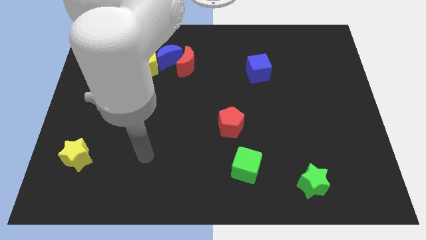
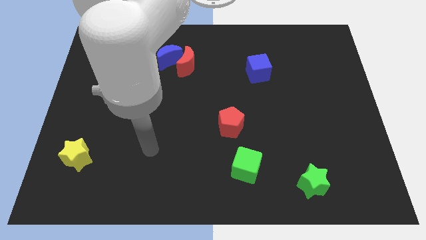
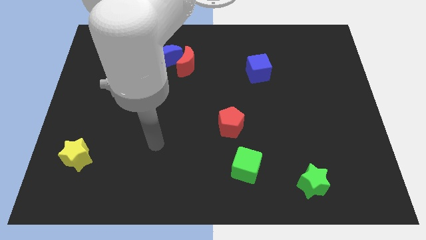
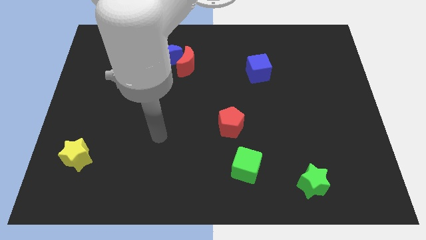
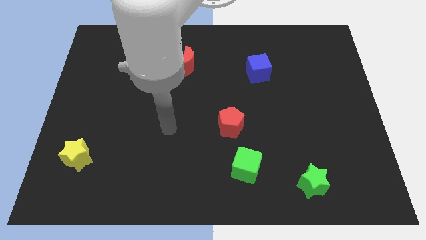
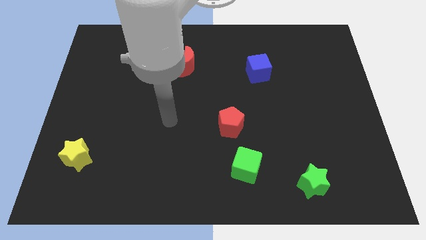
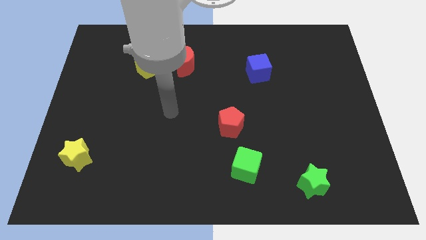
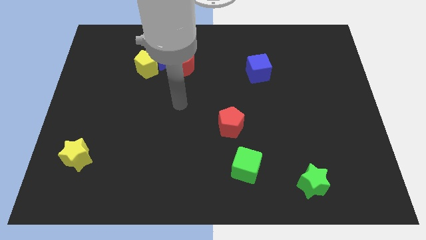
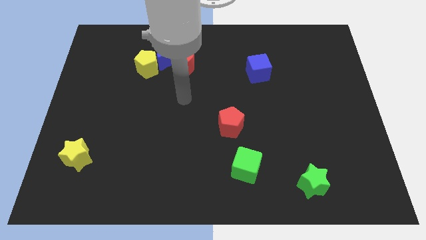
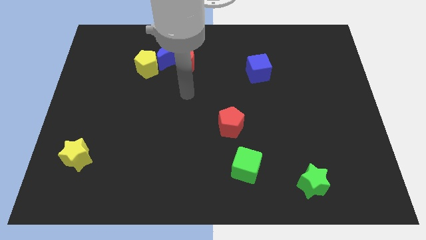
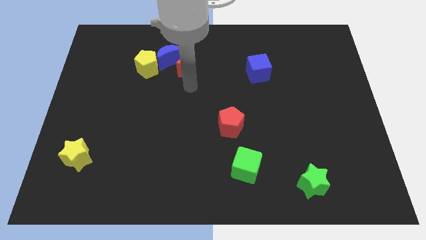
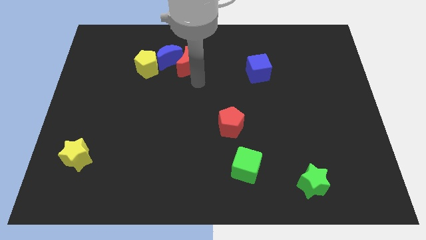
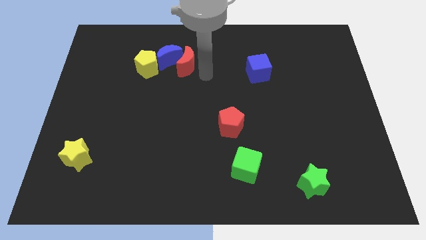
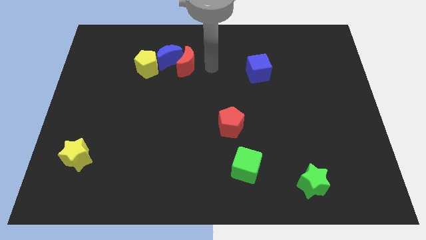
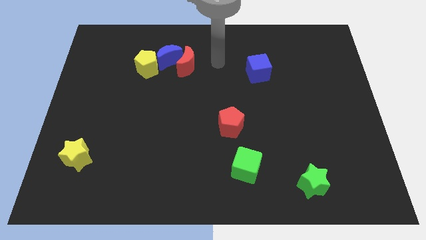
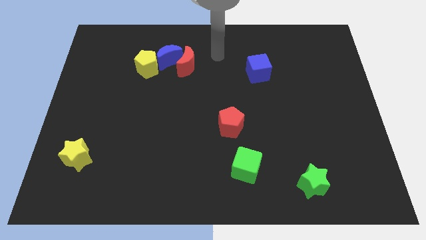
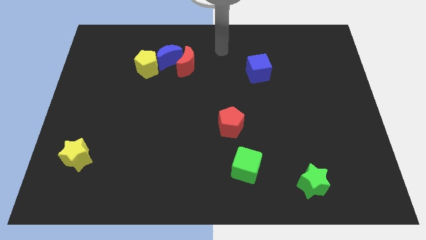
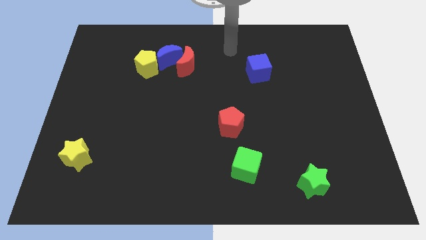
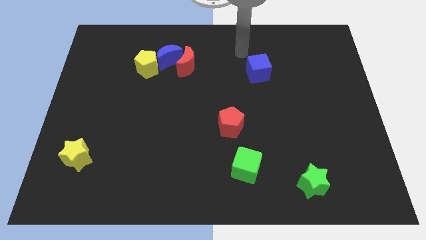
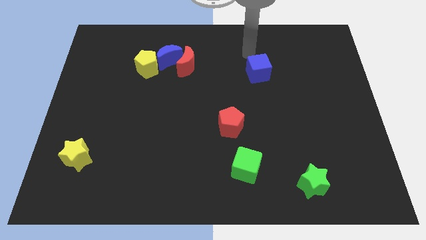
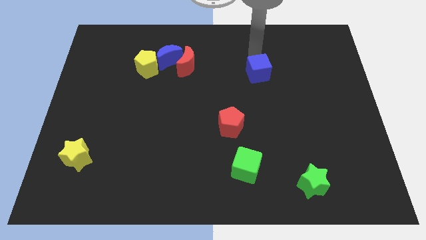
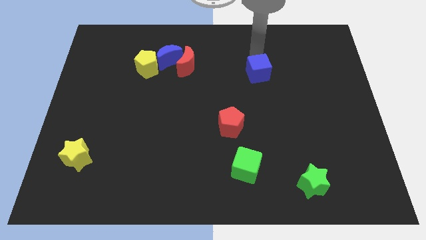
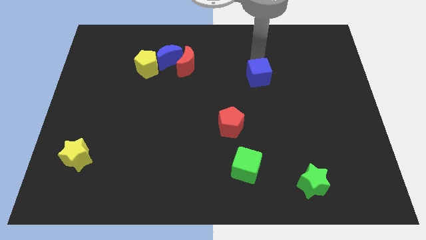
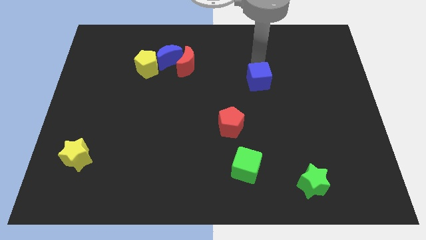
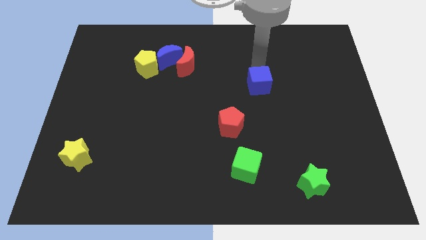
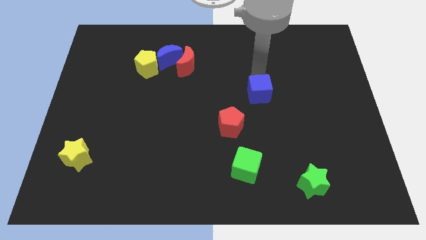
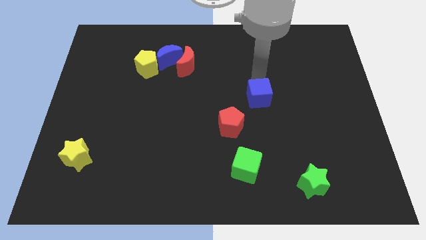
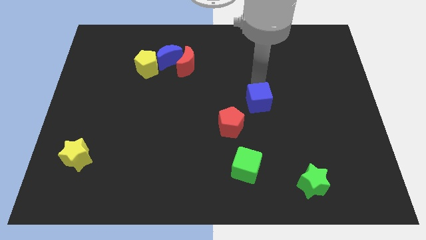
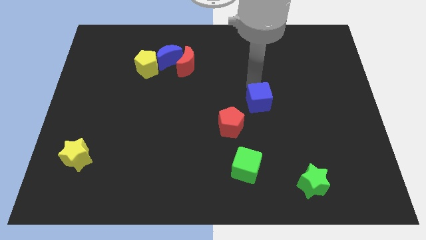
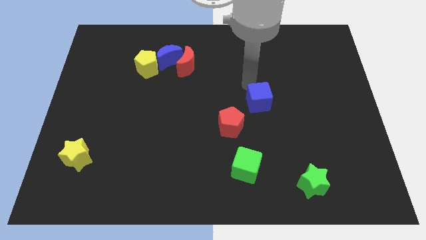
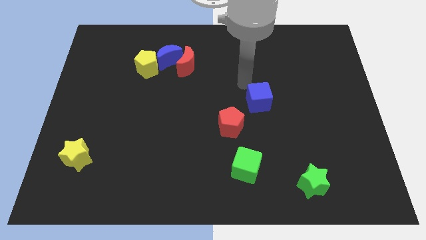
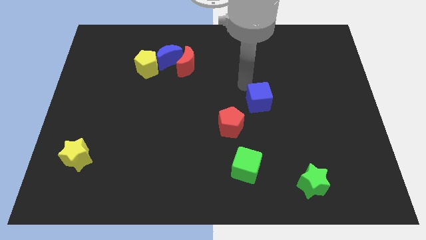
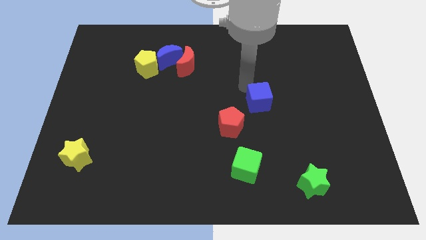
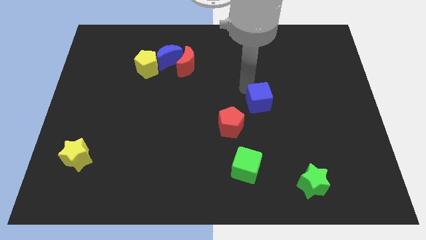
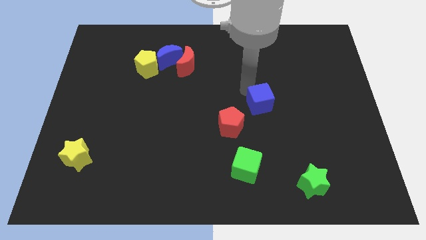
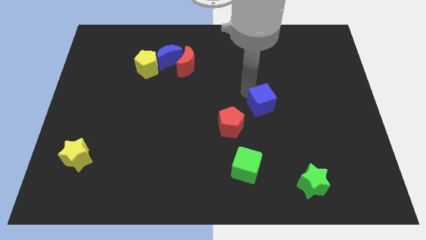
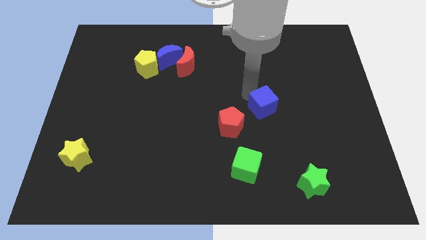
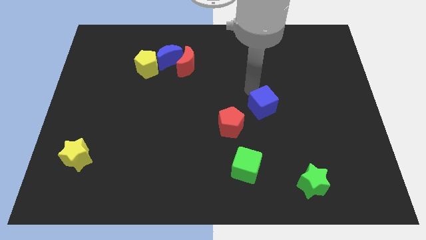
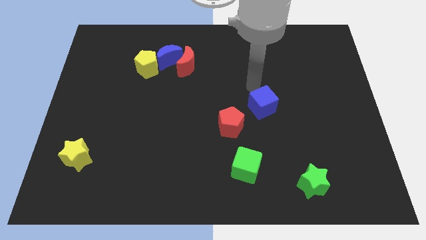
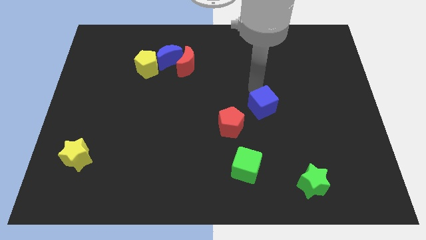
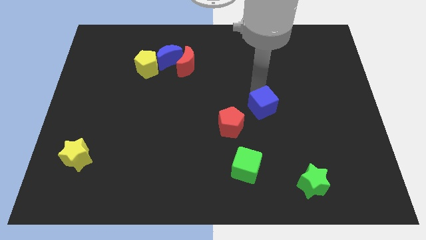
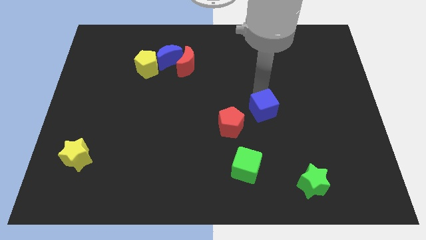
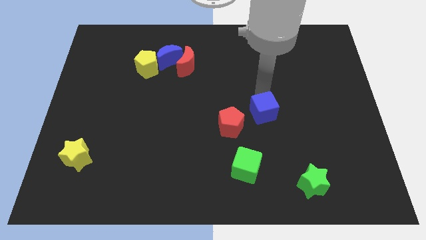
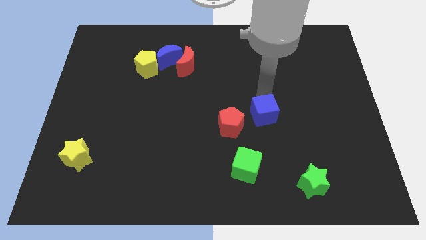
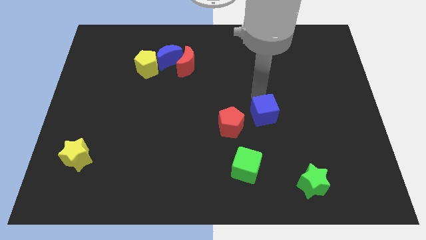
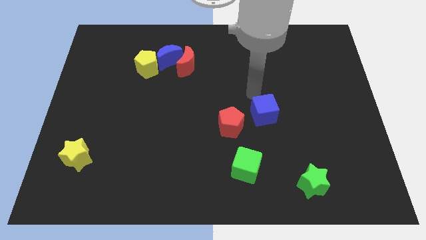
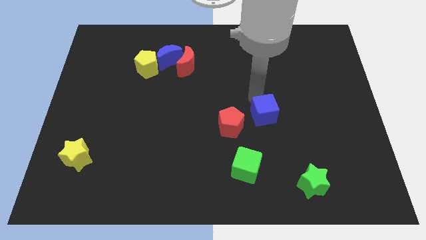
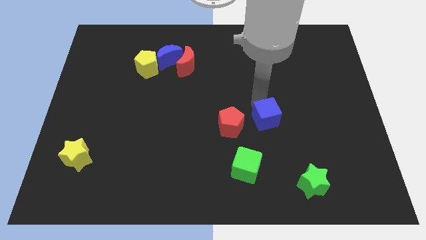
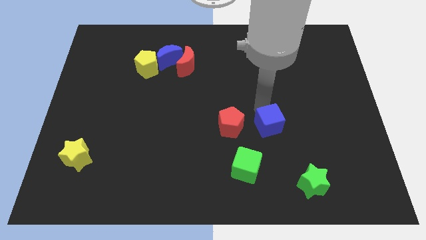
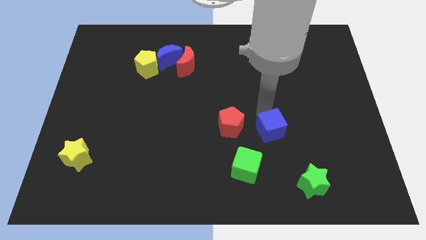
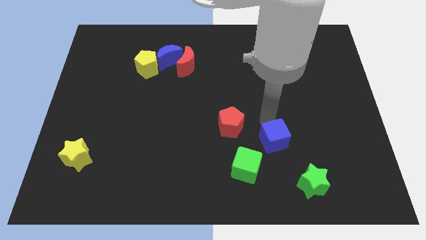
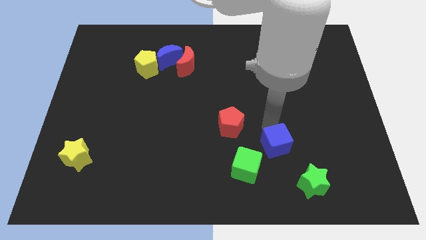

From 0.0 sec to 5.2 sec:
push the blue cube to the top left of the green star
